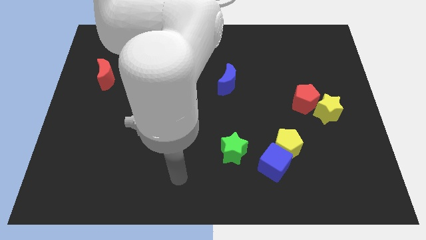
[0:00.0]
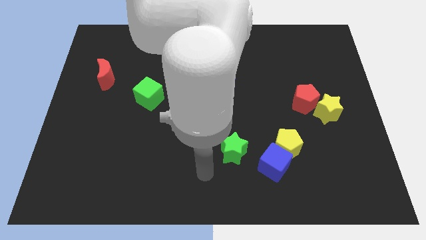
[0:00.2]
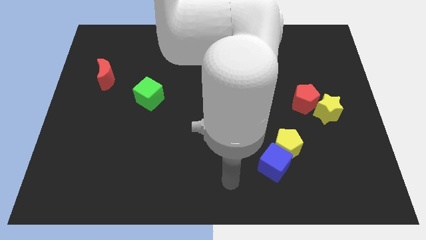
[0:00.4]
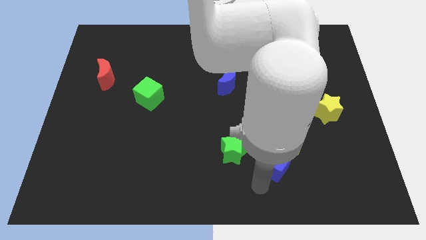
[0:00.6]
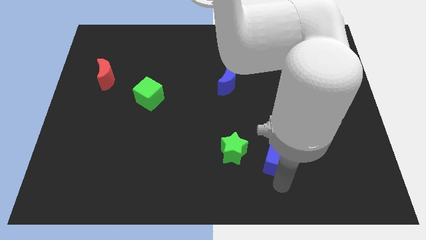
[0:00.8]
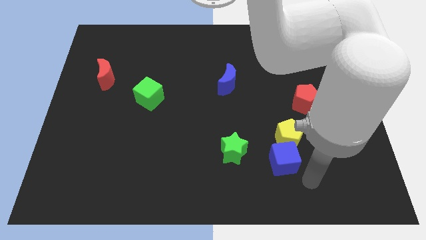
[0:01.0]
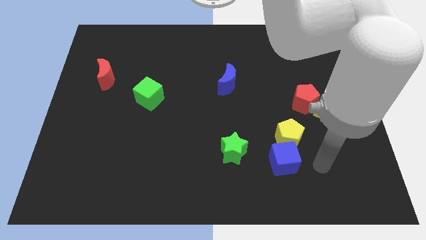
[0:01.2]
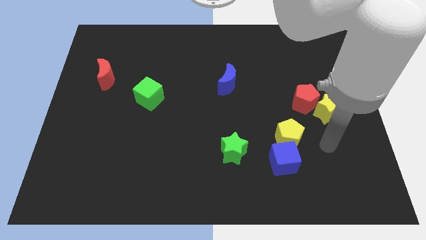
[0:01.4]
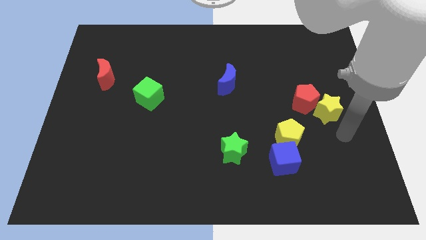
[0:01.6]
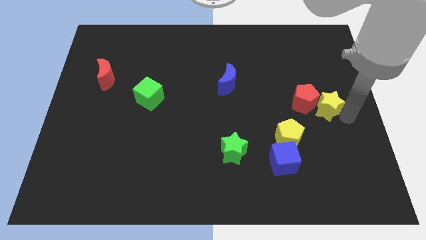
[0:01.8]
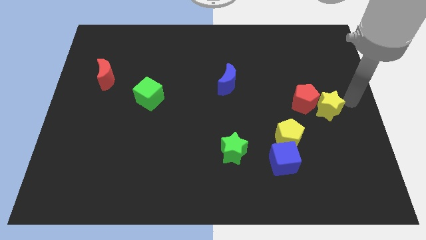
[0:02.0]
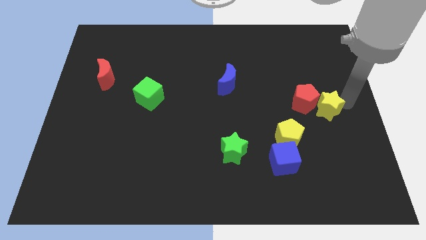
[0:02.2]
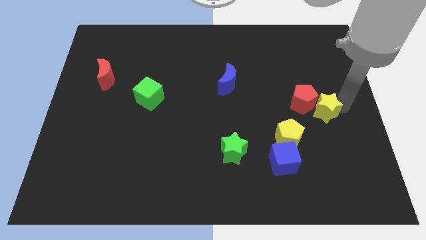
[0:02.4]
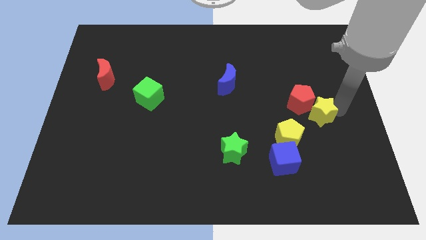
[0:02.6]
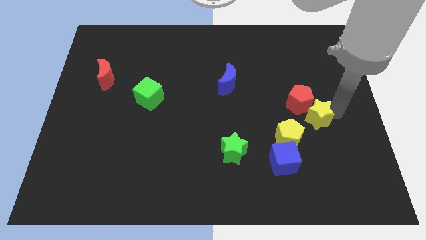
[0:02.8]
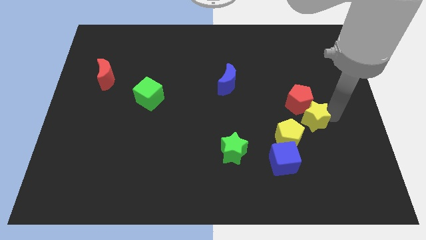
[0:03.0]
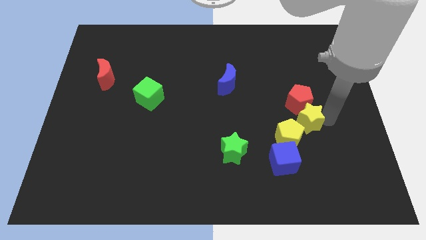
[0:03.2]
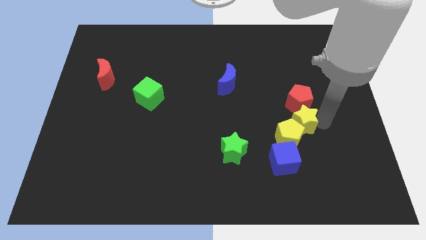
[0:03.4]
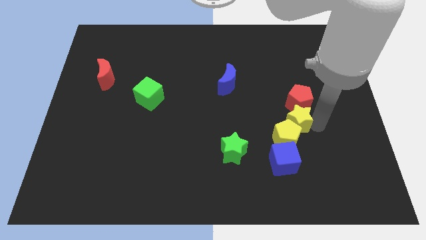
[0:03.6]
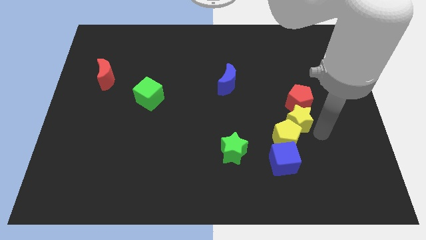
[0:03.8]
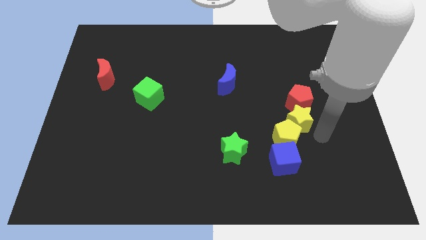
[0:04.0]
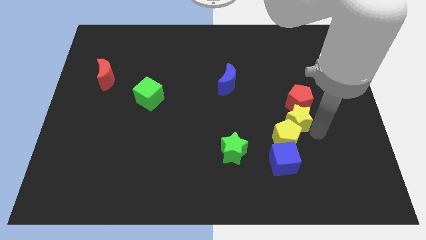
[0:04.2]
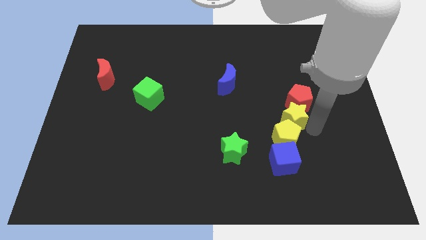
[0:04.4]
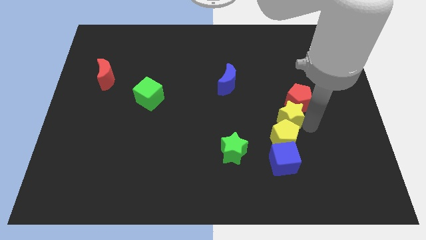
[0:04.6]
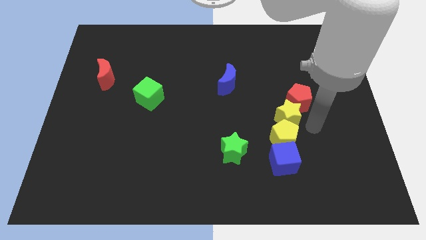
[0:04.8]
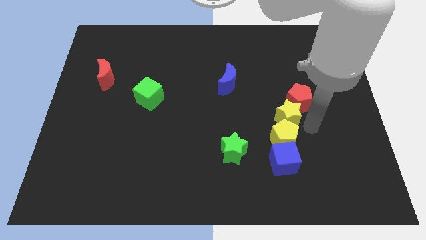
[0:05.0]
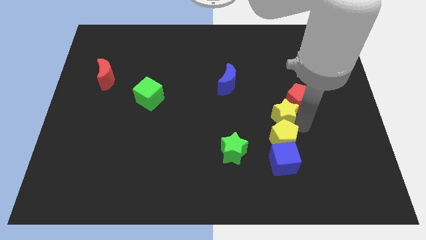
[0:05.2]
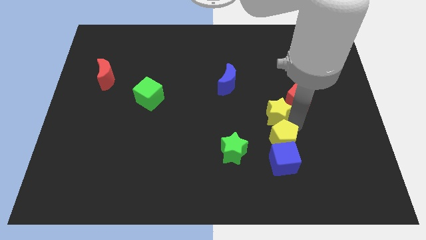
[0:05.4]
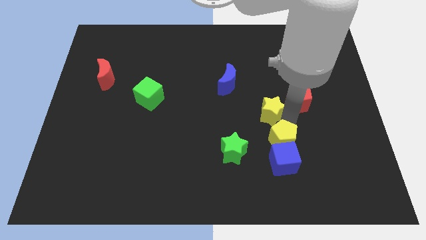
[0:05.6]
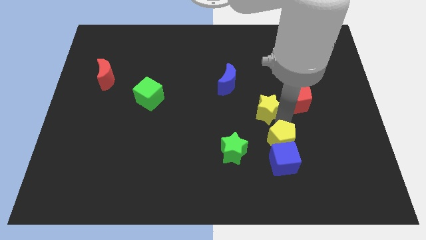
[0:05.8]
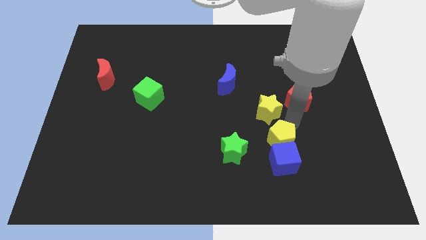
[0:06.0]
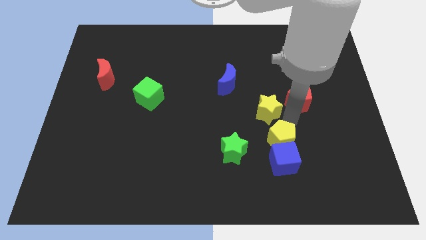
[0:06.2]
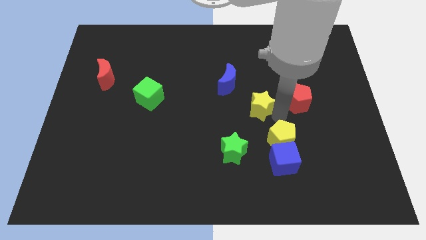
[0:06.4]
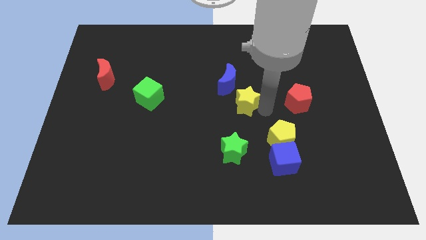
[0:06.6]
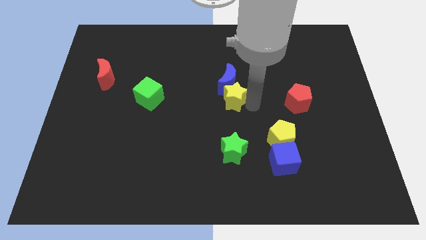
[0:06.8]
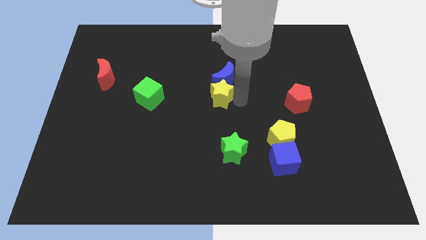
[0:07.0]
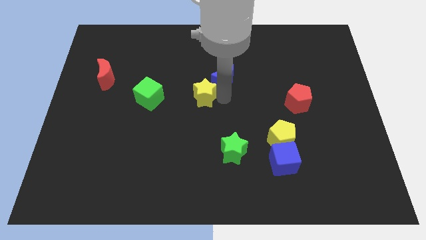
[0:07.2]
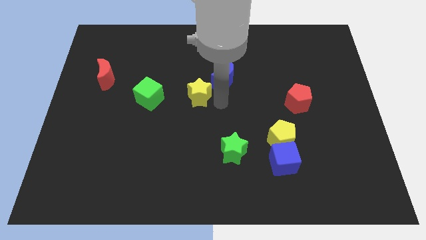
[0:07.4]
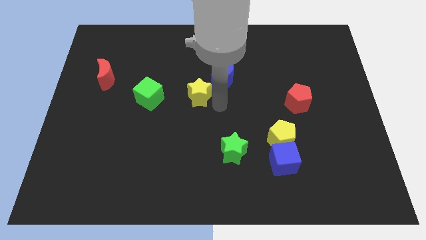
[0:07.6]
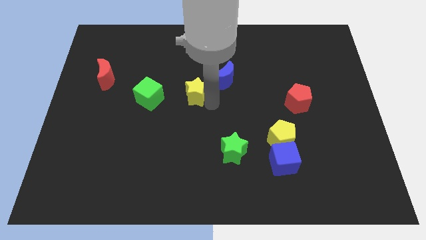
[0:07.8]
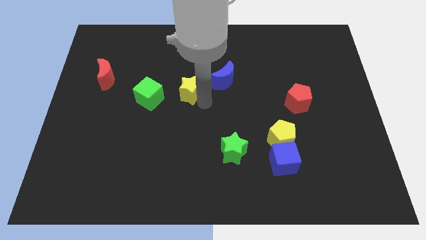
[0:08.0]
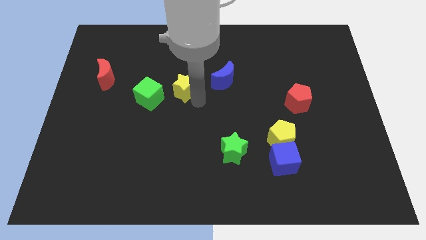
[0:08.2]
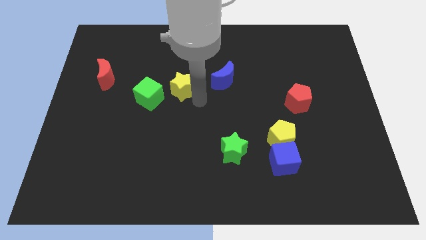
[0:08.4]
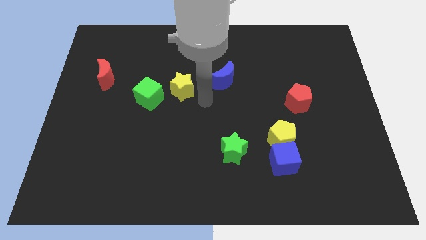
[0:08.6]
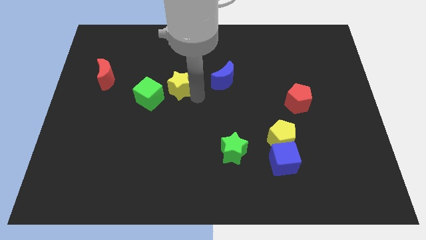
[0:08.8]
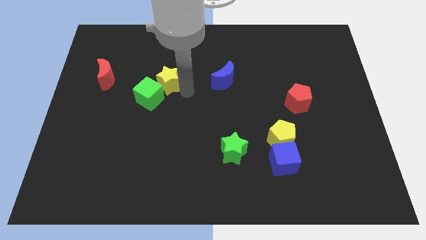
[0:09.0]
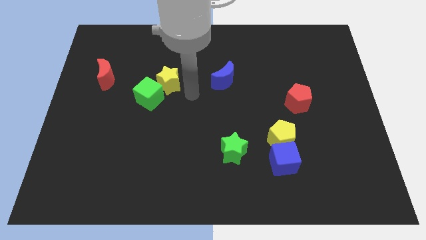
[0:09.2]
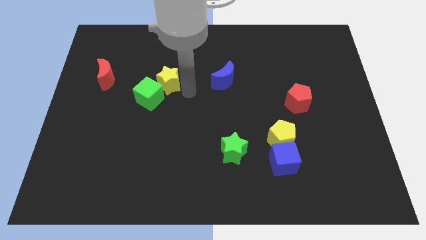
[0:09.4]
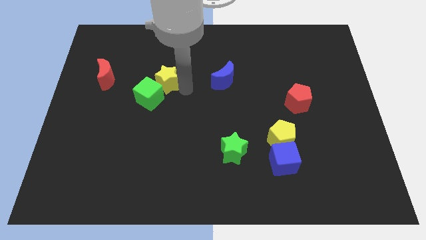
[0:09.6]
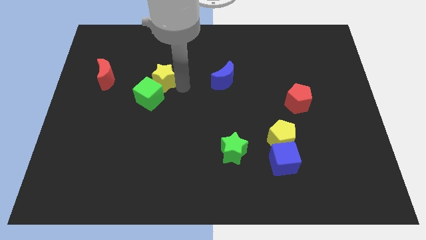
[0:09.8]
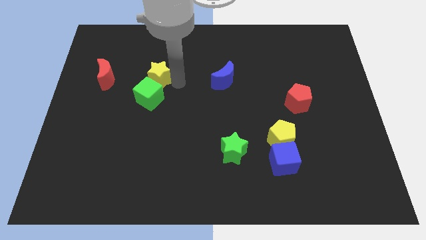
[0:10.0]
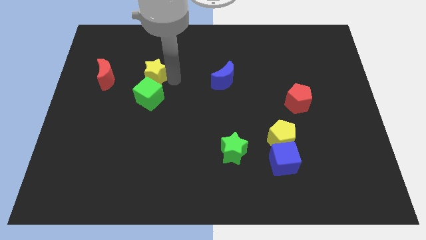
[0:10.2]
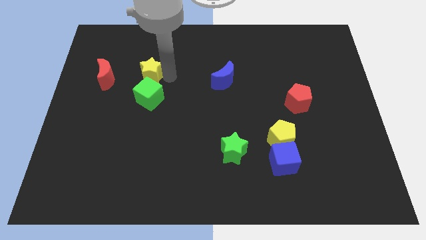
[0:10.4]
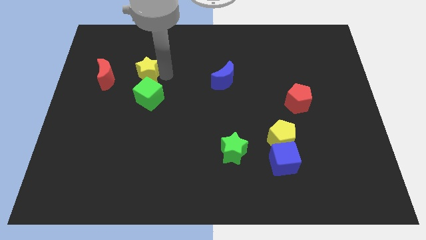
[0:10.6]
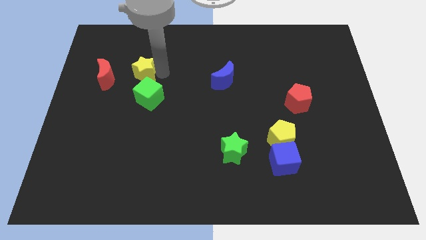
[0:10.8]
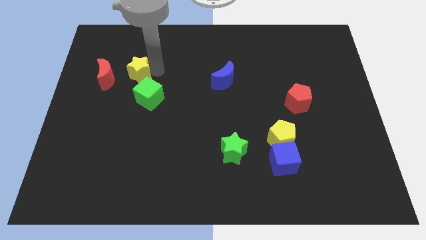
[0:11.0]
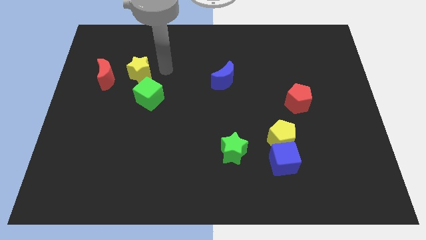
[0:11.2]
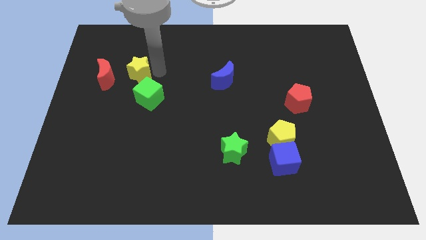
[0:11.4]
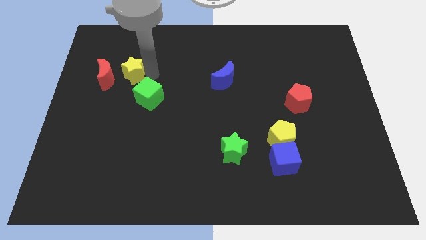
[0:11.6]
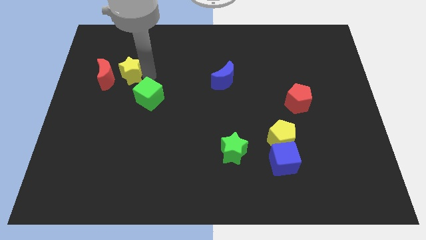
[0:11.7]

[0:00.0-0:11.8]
slide the yellow star next to the red moon
